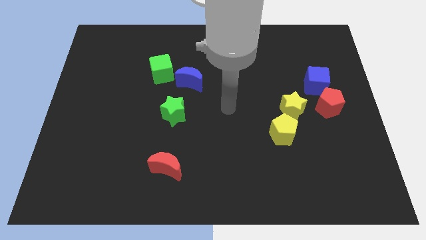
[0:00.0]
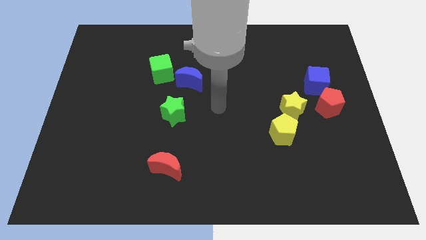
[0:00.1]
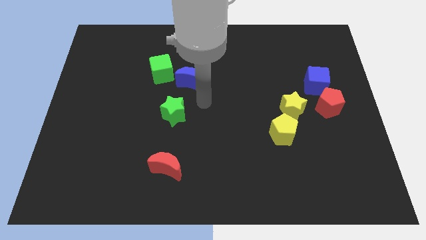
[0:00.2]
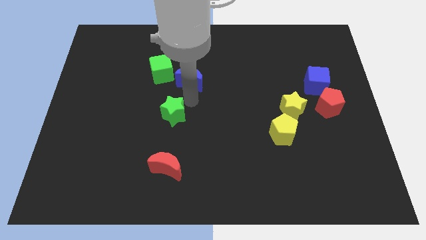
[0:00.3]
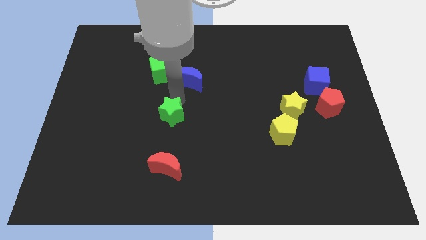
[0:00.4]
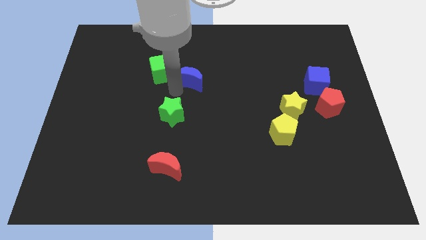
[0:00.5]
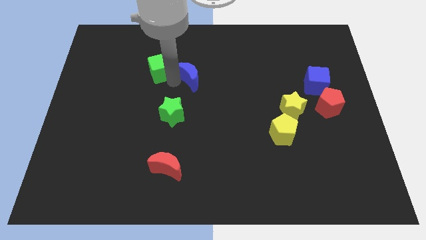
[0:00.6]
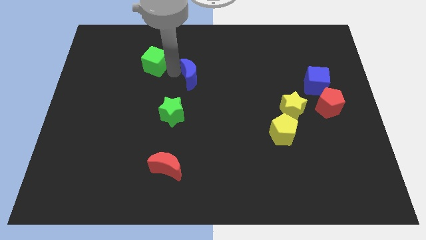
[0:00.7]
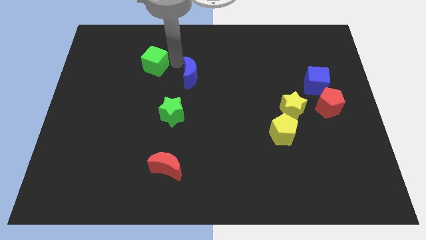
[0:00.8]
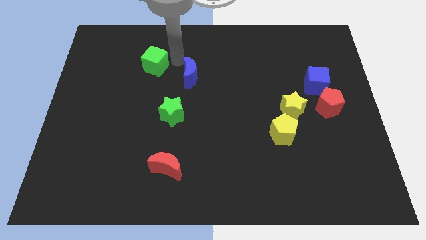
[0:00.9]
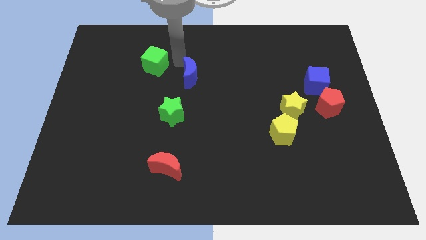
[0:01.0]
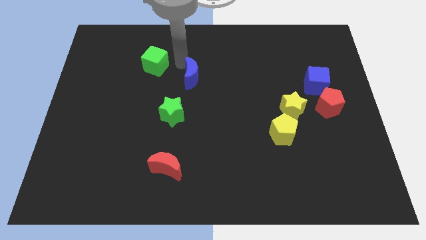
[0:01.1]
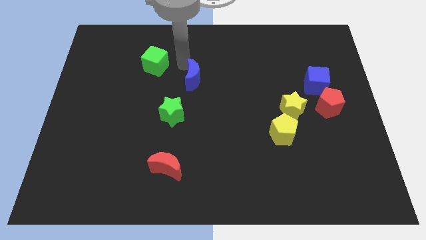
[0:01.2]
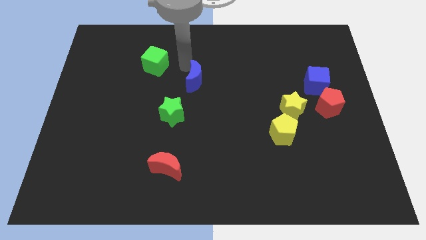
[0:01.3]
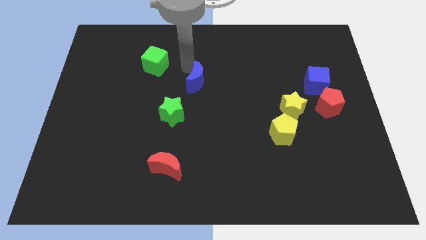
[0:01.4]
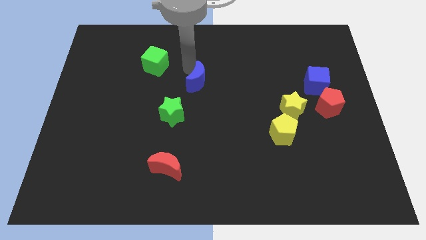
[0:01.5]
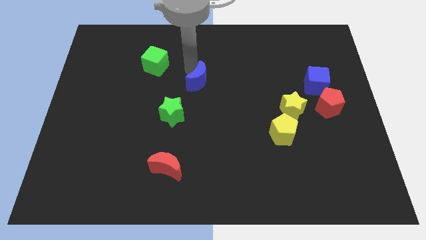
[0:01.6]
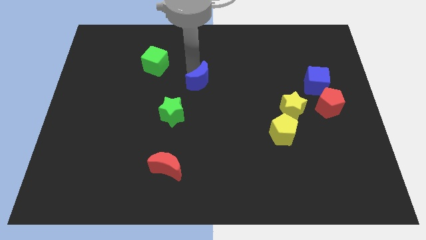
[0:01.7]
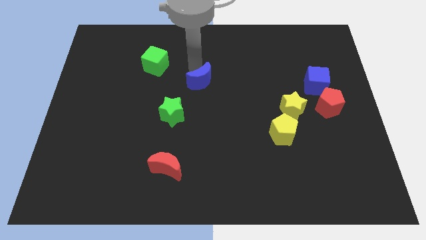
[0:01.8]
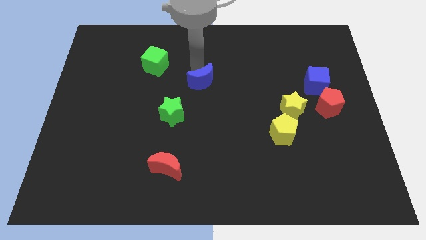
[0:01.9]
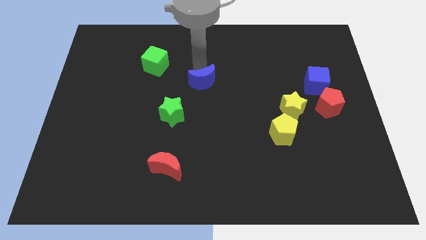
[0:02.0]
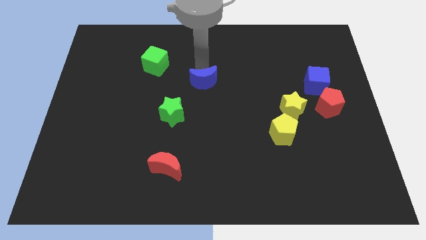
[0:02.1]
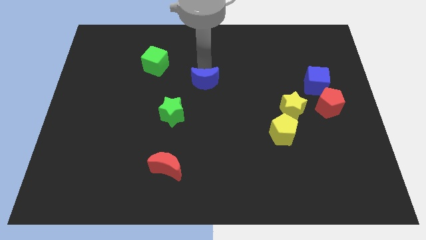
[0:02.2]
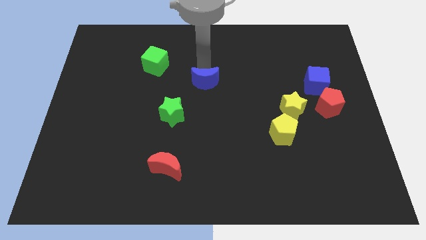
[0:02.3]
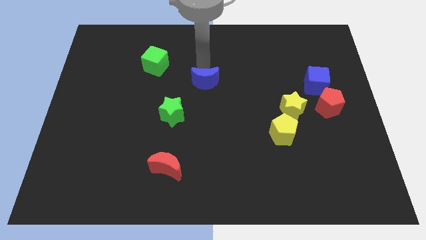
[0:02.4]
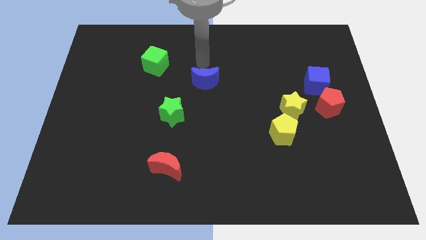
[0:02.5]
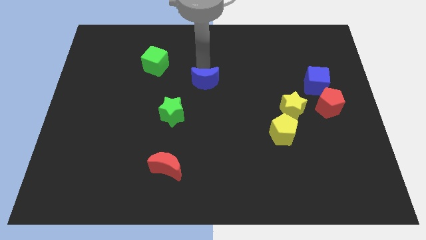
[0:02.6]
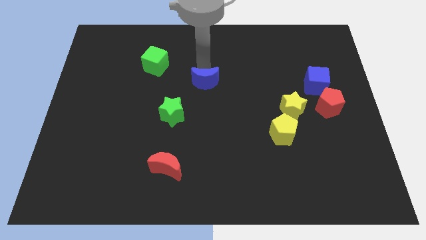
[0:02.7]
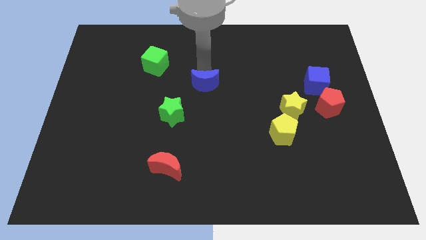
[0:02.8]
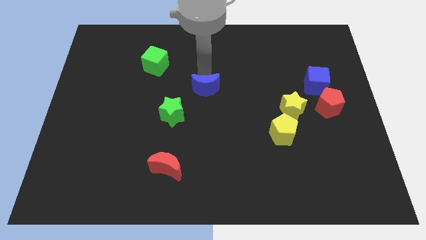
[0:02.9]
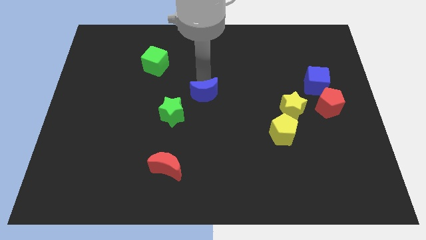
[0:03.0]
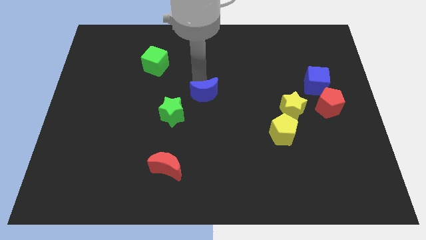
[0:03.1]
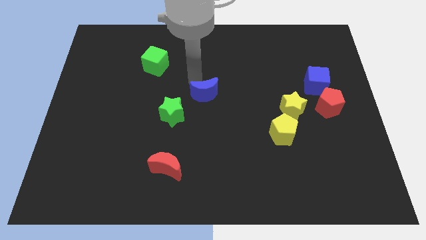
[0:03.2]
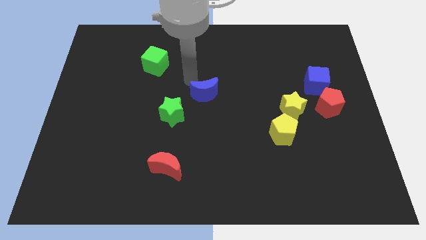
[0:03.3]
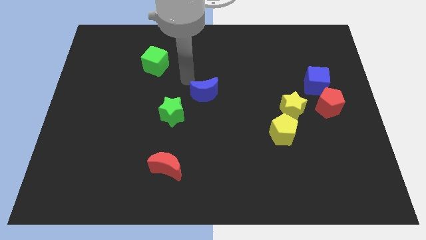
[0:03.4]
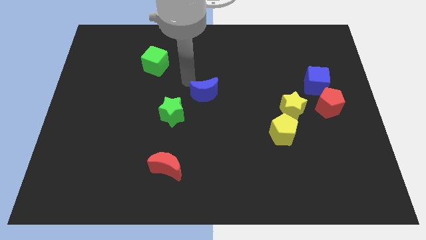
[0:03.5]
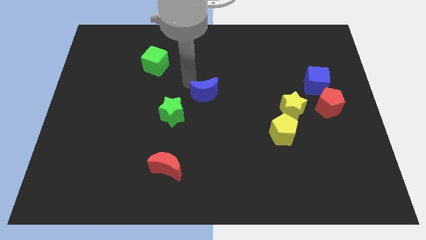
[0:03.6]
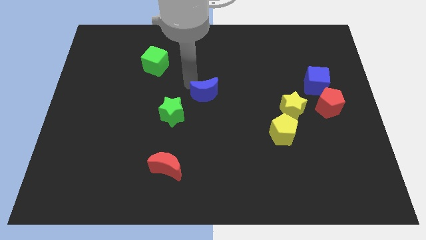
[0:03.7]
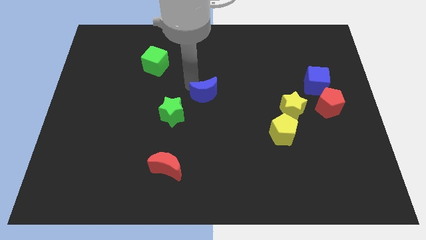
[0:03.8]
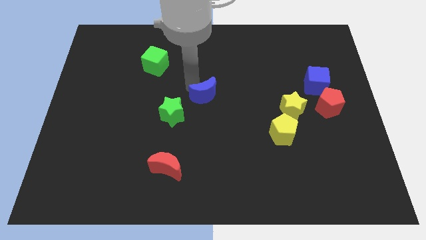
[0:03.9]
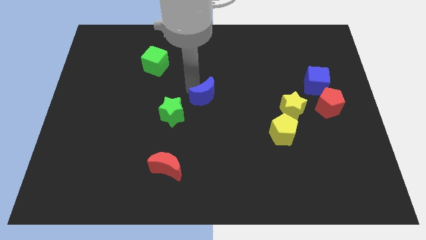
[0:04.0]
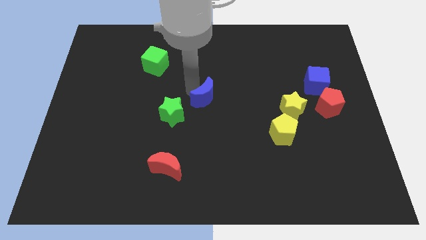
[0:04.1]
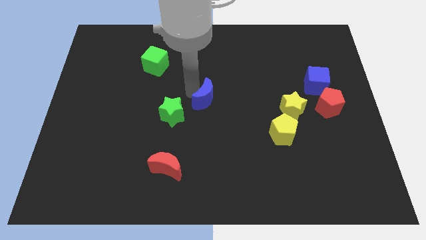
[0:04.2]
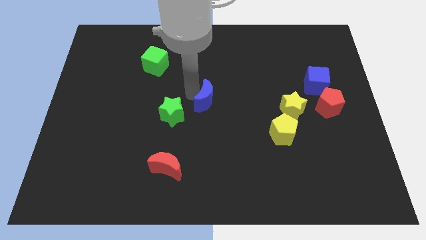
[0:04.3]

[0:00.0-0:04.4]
slightly slide the blue moon downwards and right

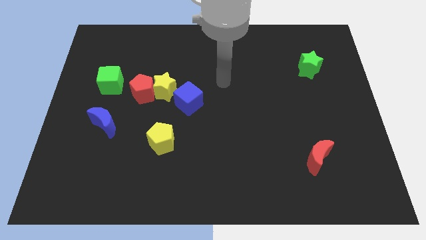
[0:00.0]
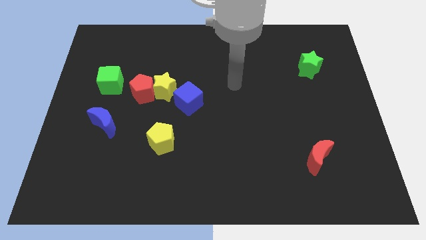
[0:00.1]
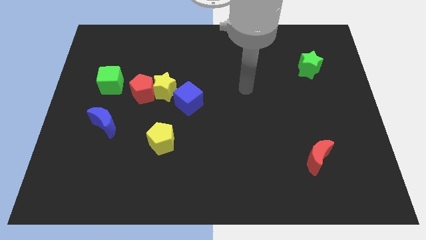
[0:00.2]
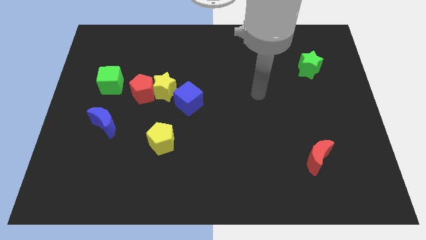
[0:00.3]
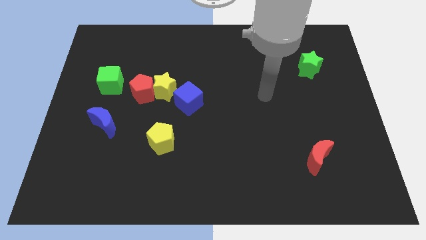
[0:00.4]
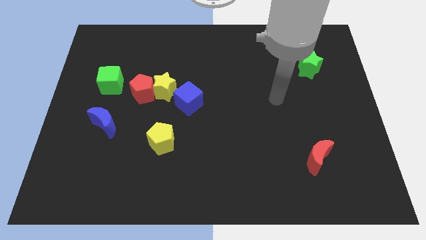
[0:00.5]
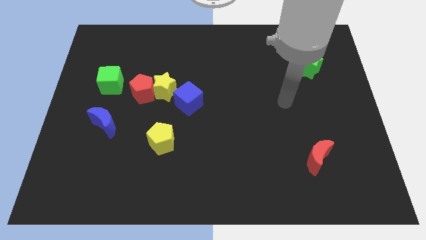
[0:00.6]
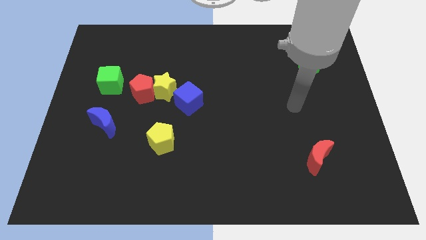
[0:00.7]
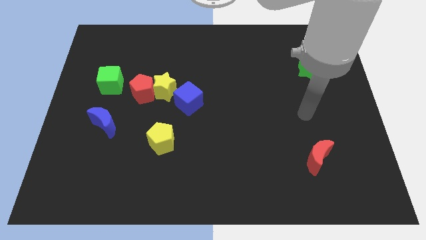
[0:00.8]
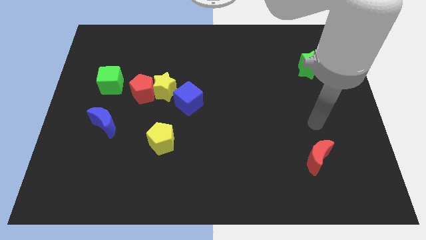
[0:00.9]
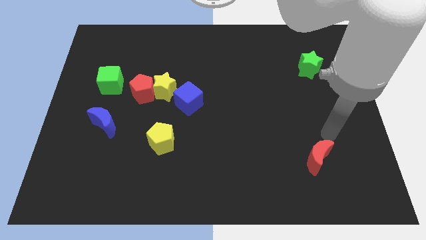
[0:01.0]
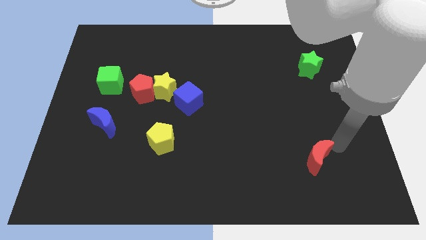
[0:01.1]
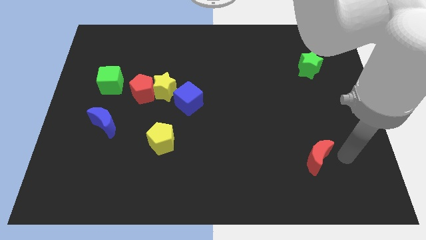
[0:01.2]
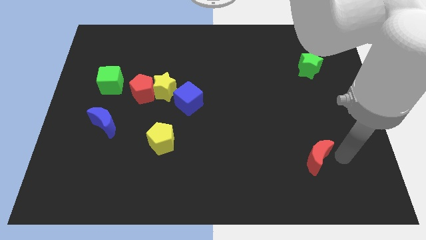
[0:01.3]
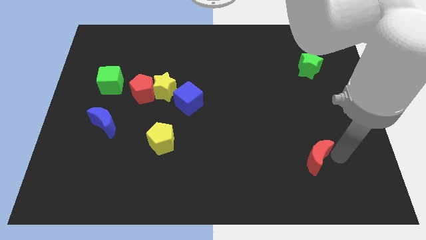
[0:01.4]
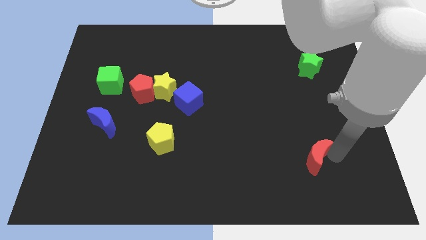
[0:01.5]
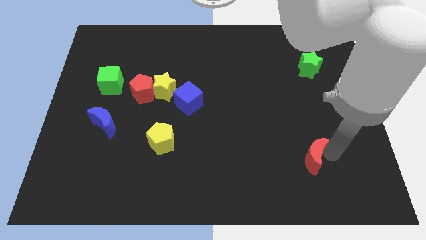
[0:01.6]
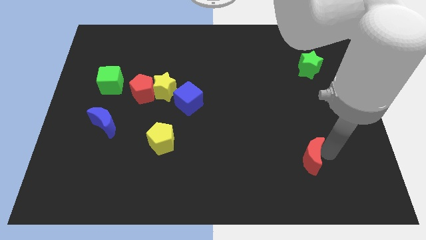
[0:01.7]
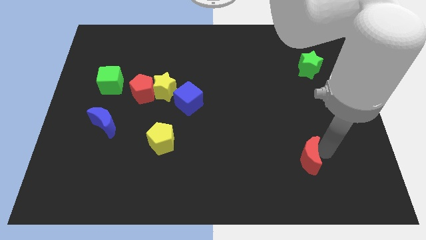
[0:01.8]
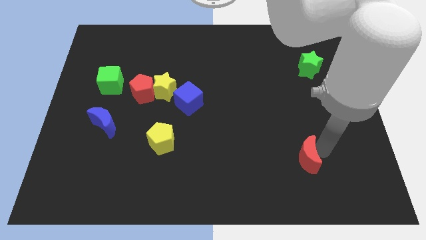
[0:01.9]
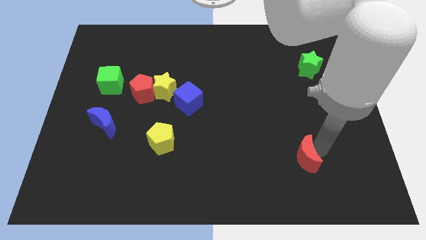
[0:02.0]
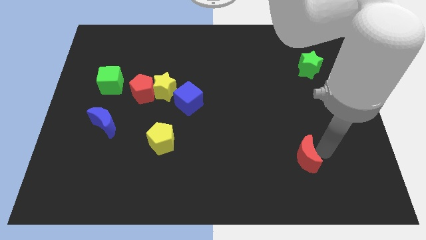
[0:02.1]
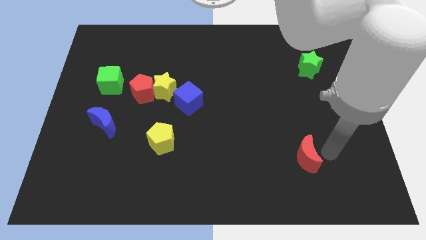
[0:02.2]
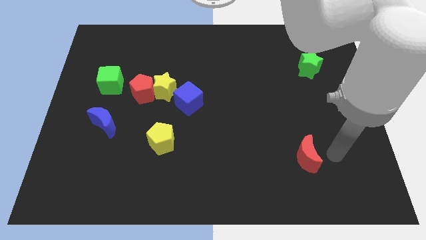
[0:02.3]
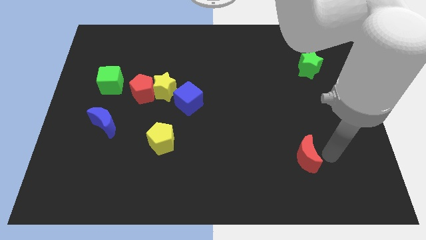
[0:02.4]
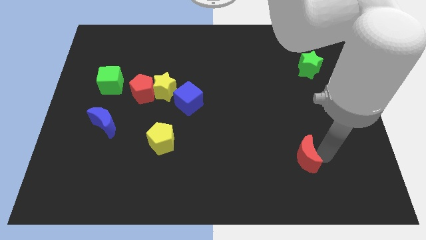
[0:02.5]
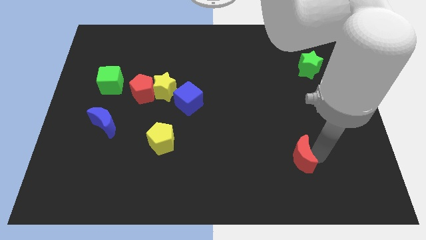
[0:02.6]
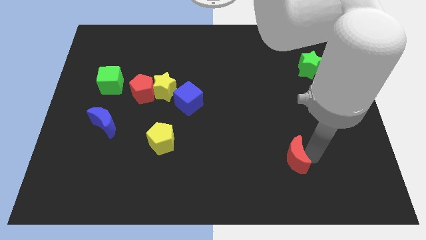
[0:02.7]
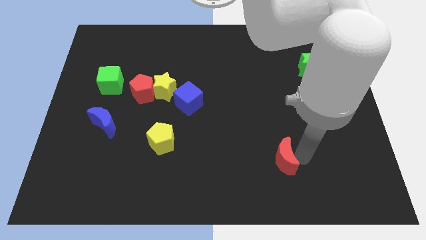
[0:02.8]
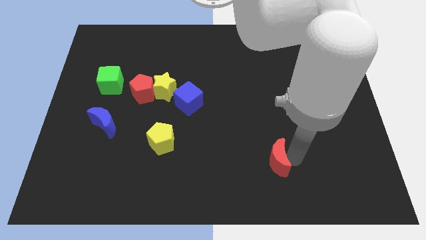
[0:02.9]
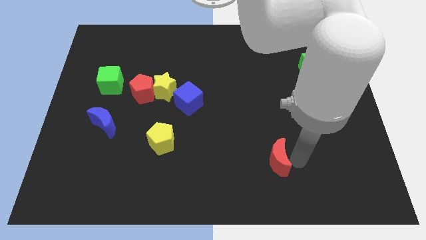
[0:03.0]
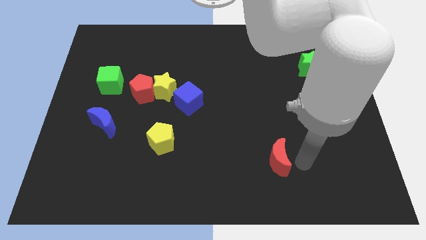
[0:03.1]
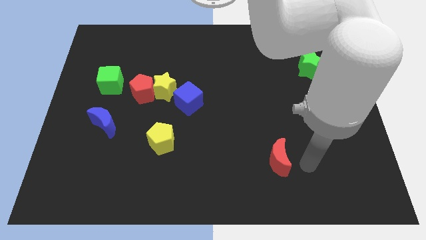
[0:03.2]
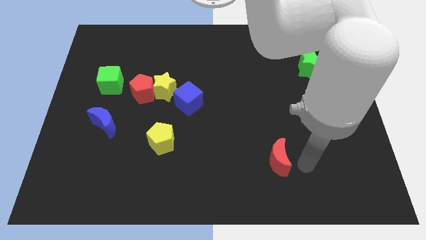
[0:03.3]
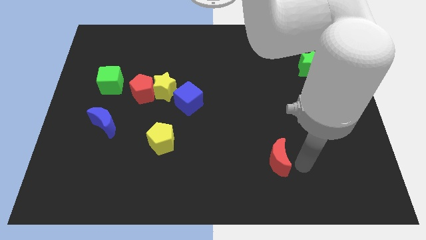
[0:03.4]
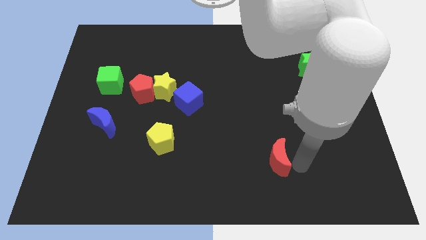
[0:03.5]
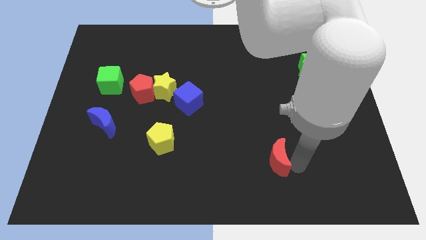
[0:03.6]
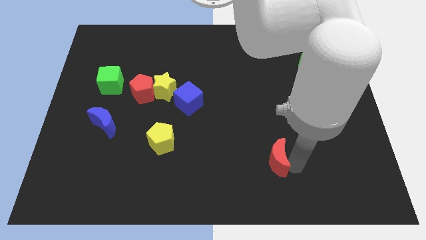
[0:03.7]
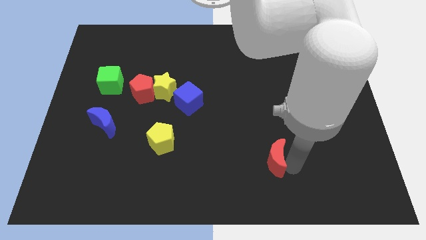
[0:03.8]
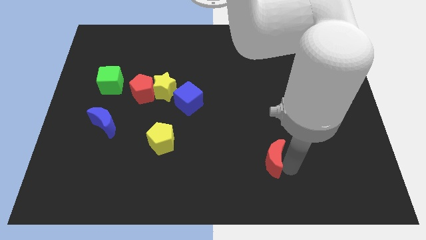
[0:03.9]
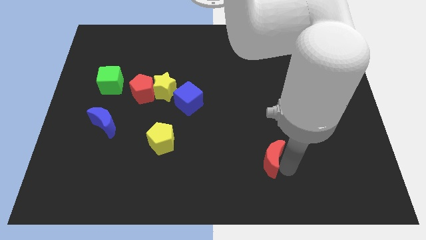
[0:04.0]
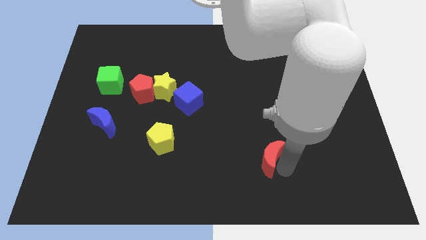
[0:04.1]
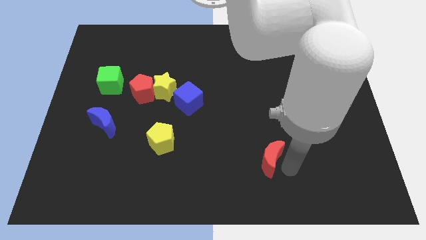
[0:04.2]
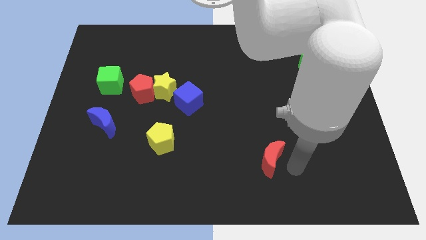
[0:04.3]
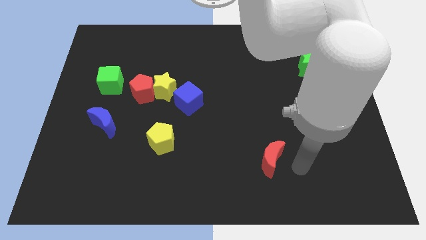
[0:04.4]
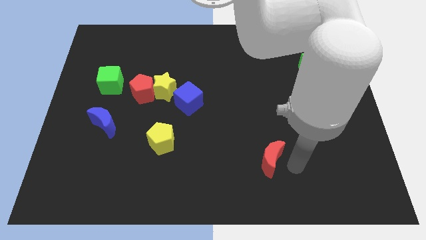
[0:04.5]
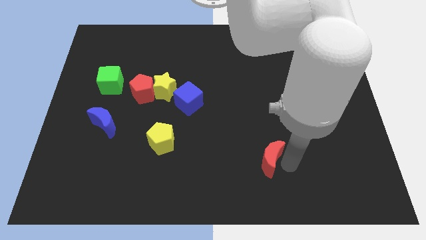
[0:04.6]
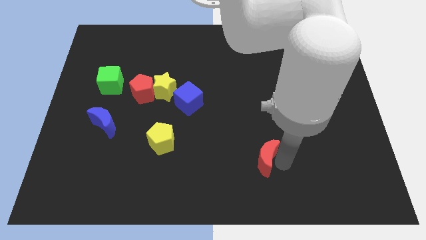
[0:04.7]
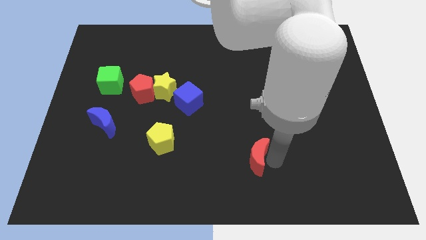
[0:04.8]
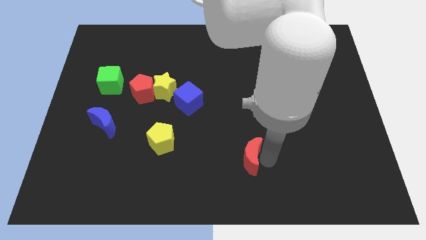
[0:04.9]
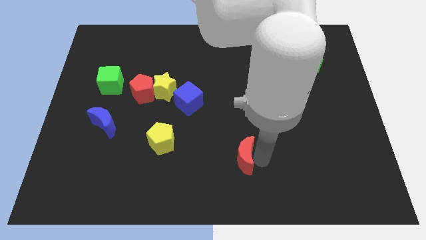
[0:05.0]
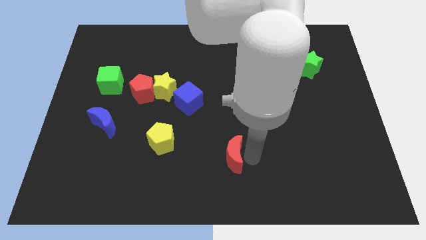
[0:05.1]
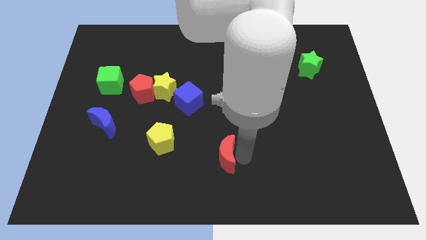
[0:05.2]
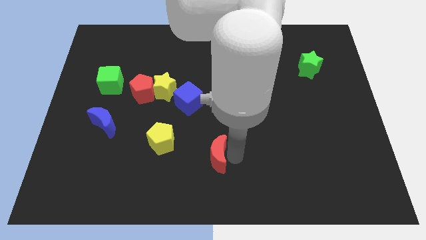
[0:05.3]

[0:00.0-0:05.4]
move the red moon left
